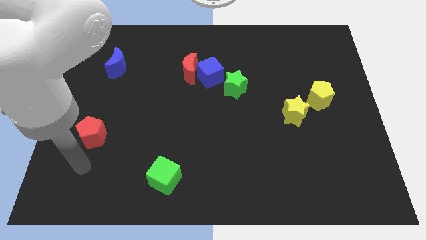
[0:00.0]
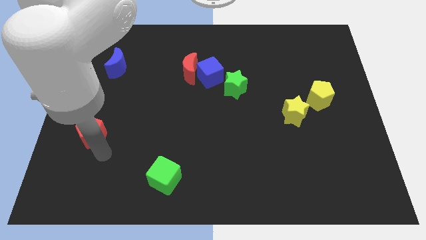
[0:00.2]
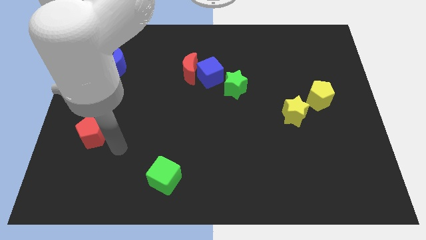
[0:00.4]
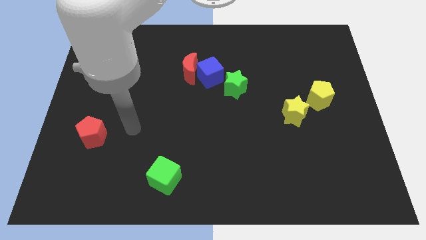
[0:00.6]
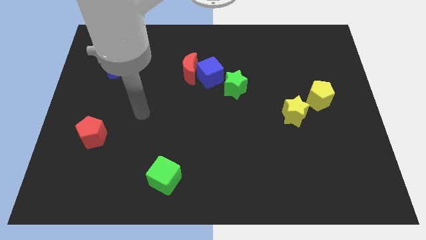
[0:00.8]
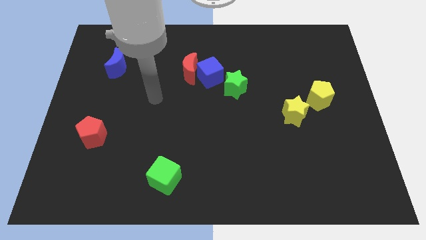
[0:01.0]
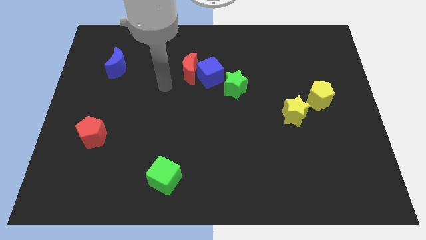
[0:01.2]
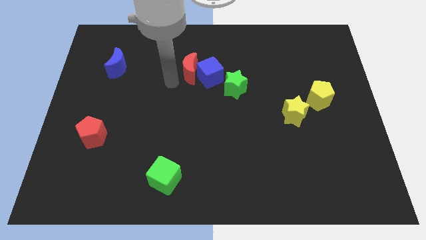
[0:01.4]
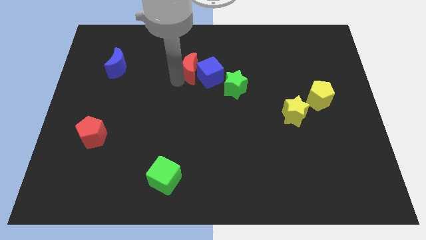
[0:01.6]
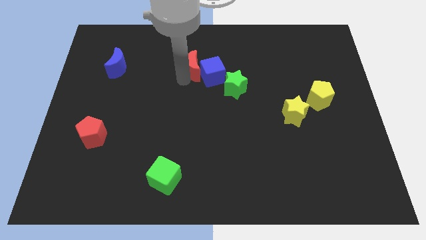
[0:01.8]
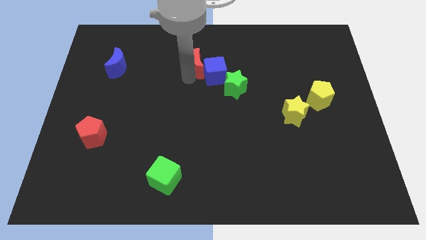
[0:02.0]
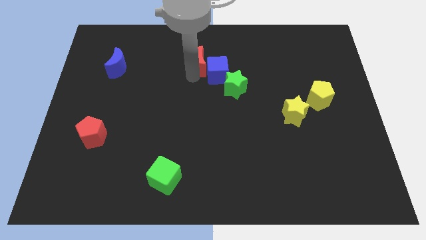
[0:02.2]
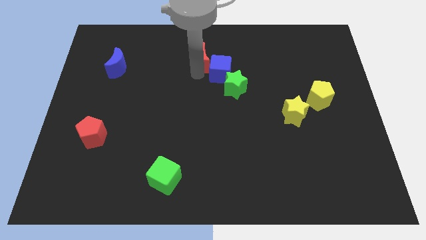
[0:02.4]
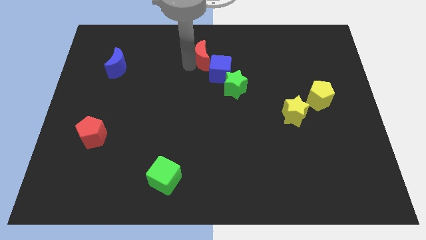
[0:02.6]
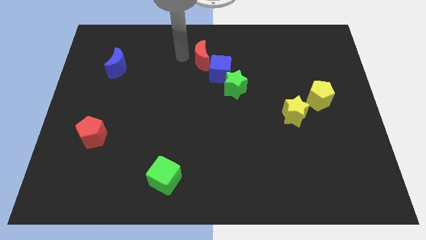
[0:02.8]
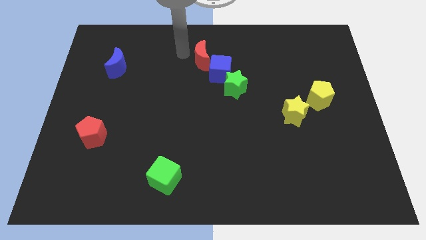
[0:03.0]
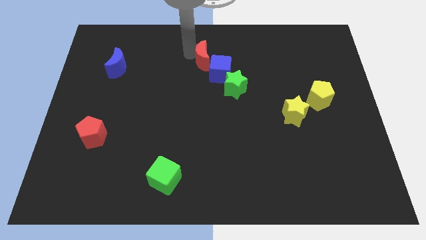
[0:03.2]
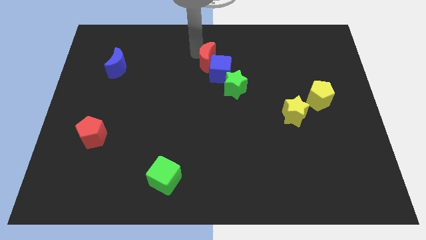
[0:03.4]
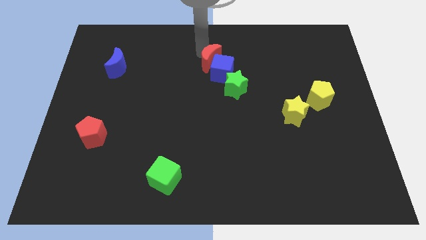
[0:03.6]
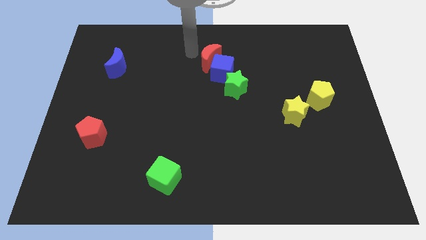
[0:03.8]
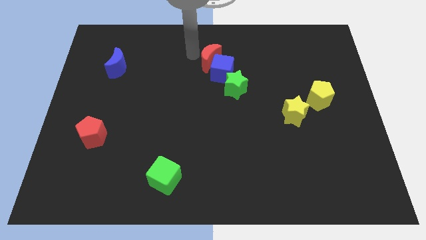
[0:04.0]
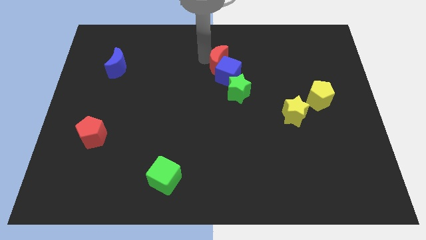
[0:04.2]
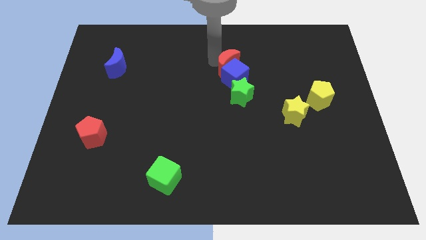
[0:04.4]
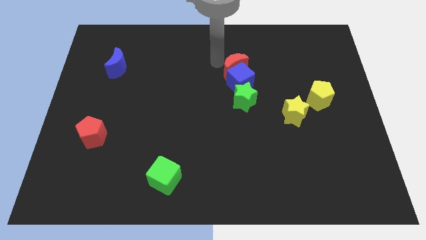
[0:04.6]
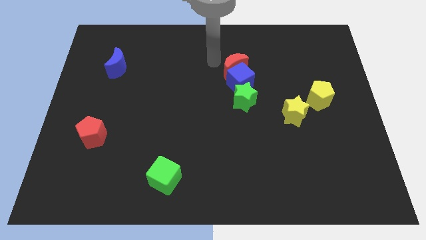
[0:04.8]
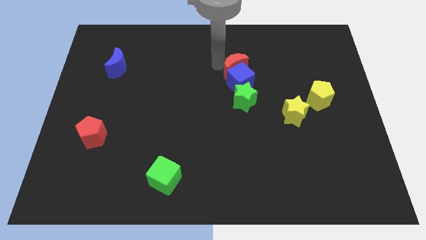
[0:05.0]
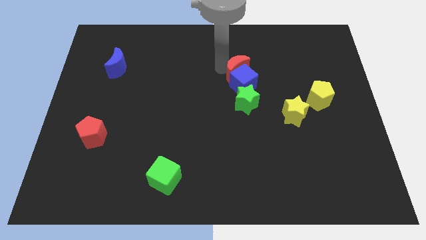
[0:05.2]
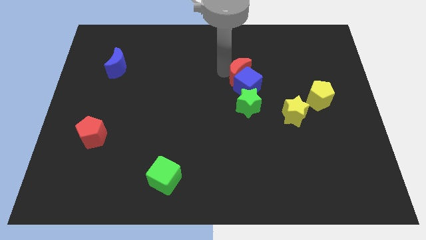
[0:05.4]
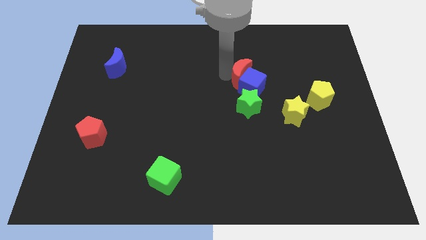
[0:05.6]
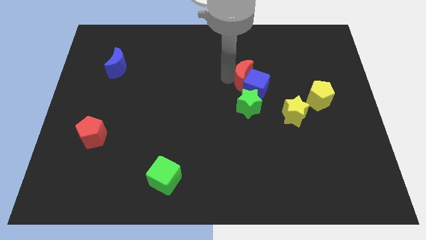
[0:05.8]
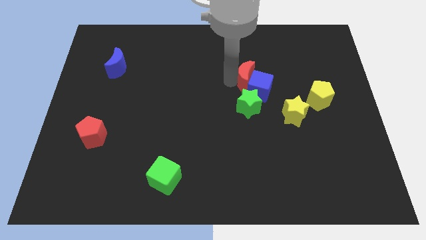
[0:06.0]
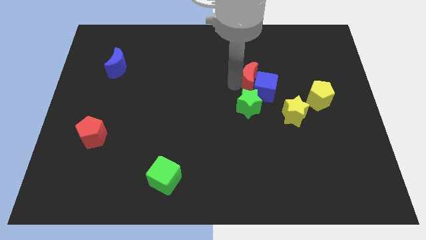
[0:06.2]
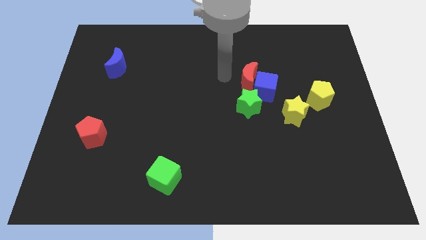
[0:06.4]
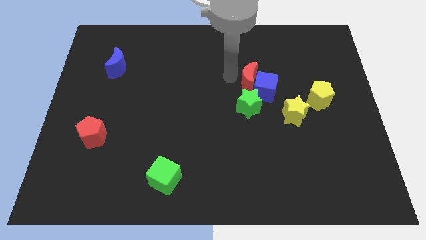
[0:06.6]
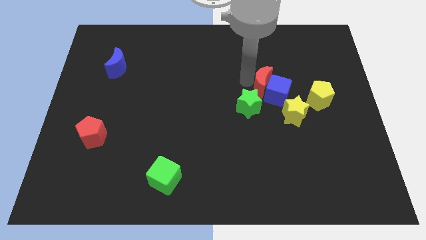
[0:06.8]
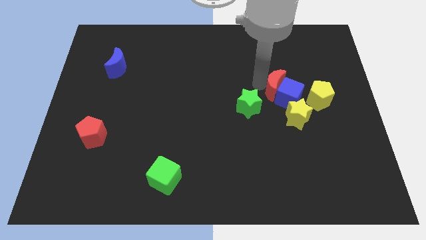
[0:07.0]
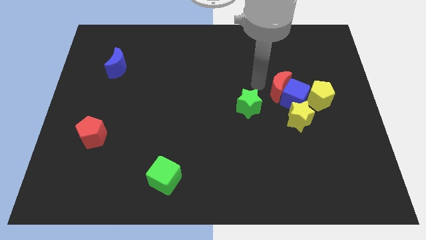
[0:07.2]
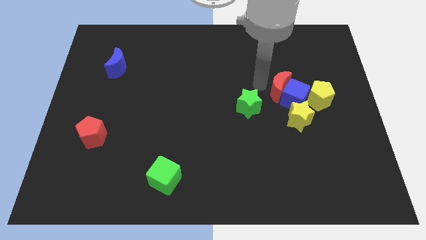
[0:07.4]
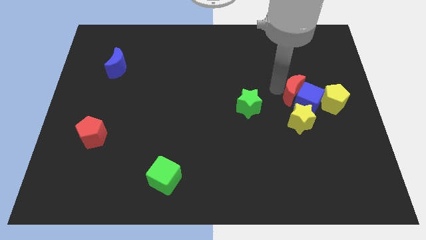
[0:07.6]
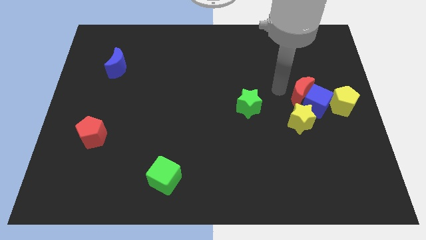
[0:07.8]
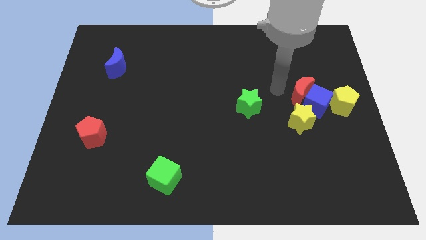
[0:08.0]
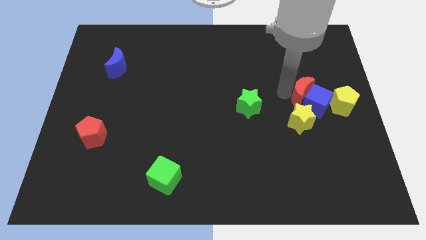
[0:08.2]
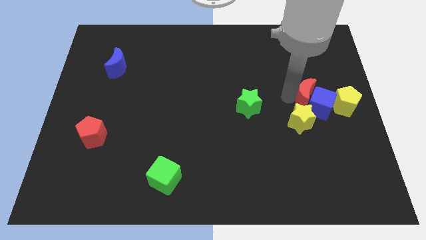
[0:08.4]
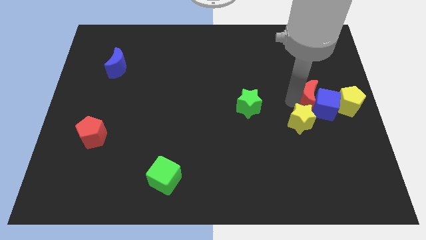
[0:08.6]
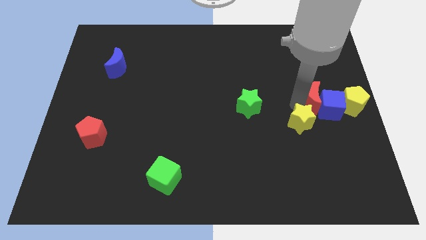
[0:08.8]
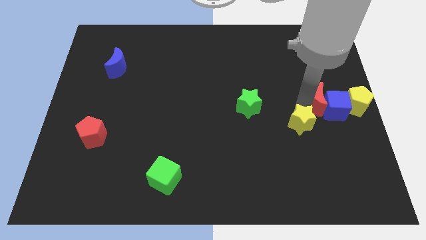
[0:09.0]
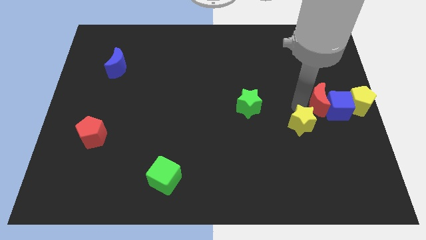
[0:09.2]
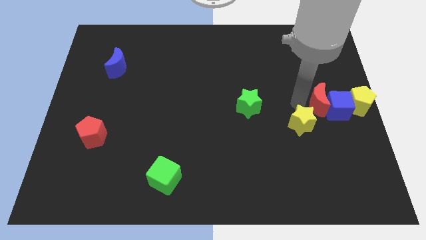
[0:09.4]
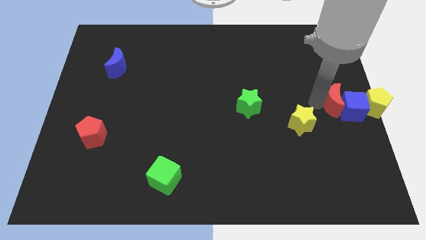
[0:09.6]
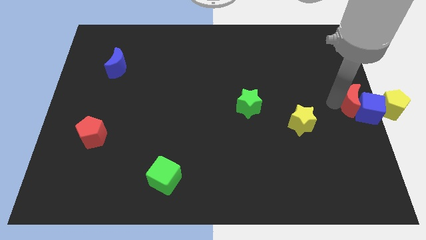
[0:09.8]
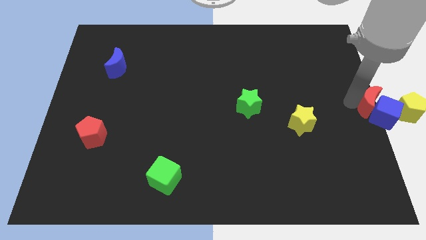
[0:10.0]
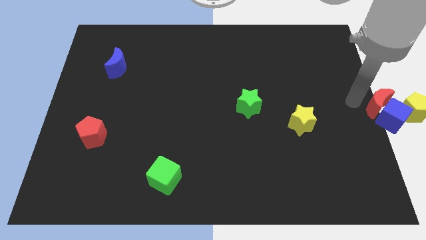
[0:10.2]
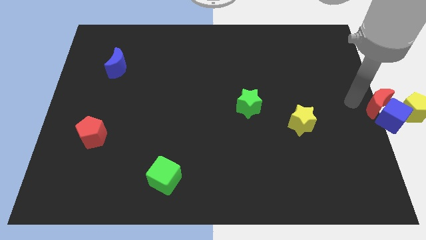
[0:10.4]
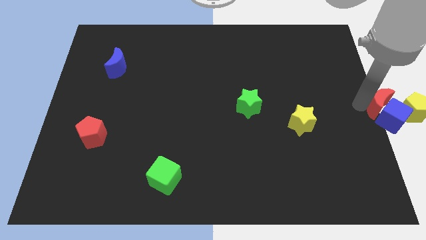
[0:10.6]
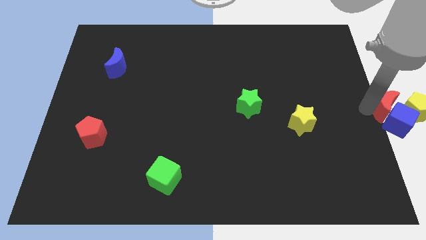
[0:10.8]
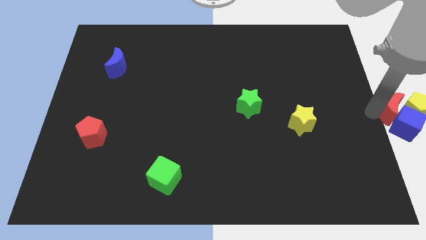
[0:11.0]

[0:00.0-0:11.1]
put the red moon next to the yellow pentagon

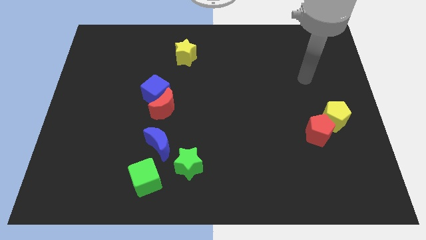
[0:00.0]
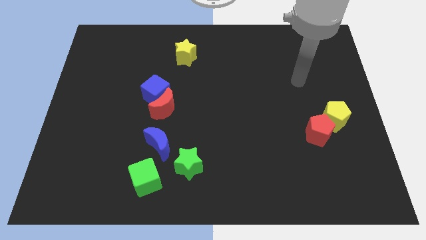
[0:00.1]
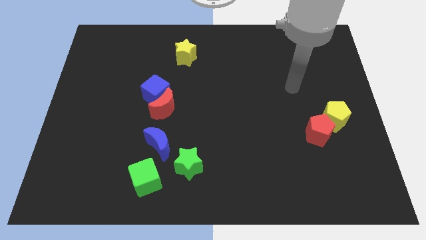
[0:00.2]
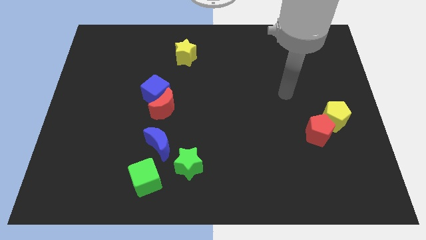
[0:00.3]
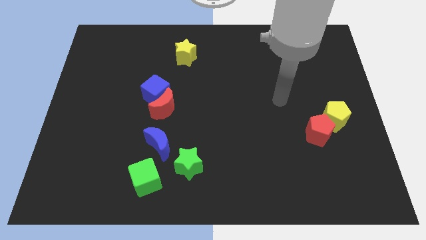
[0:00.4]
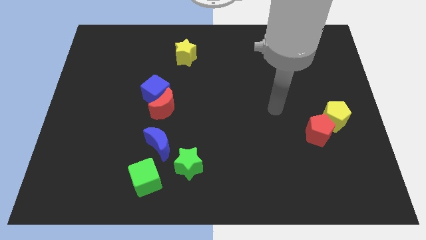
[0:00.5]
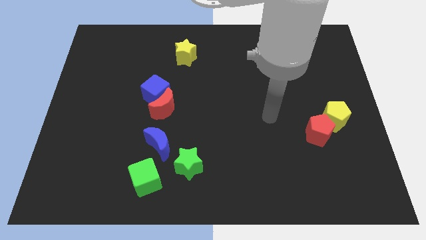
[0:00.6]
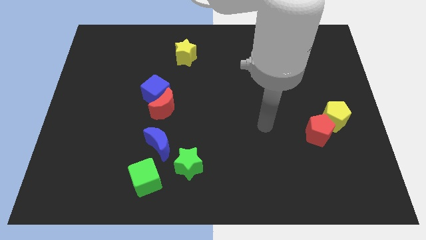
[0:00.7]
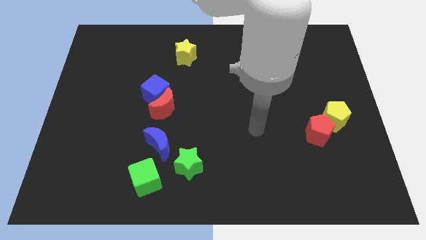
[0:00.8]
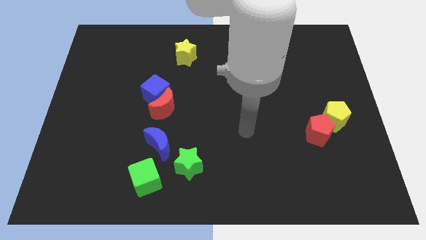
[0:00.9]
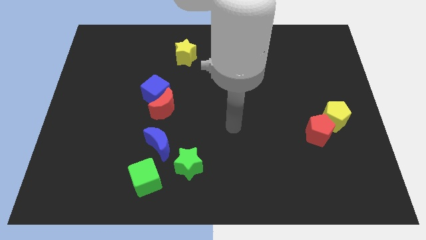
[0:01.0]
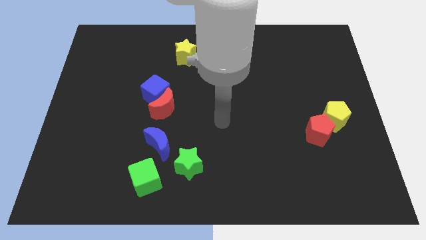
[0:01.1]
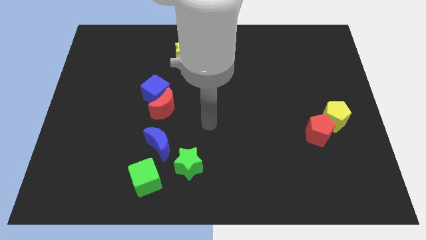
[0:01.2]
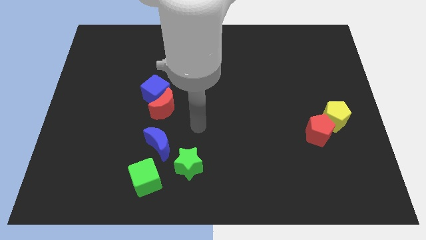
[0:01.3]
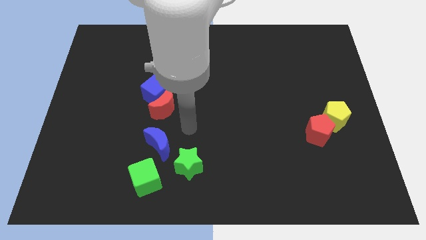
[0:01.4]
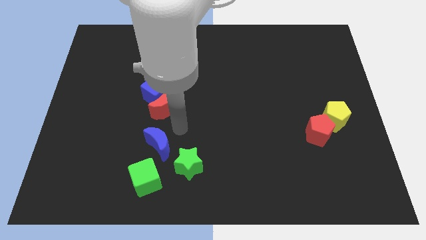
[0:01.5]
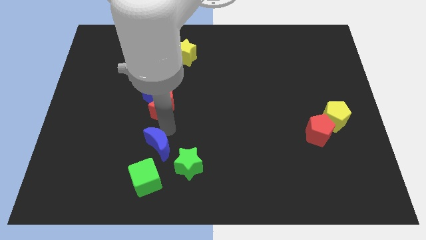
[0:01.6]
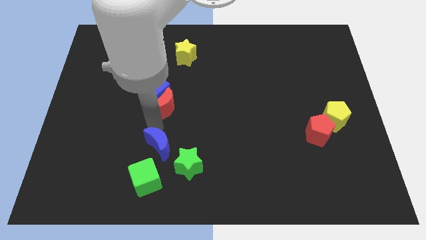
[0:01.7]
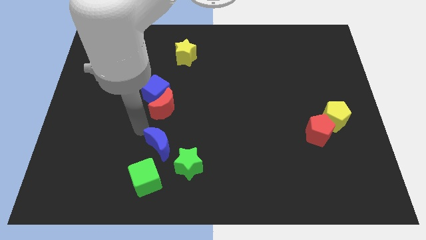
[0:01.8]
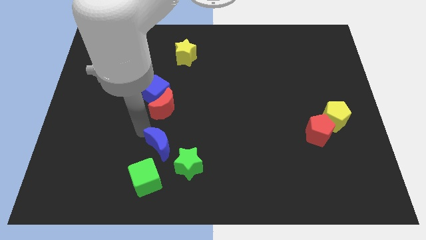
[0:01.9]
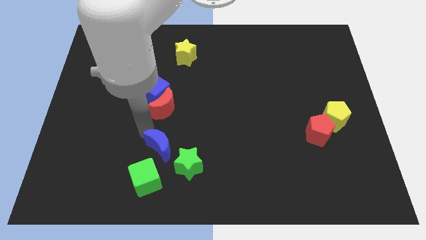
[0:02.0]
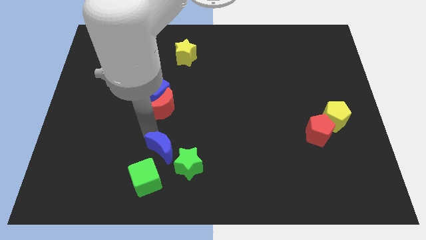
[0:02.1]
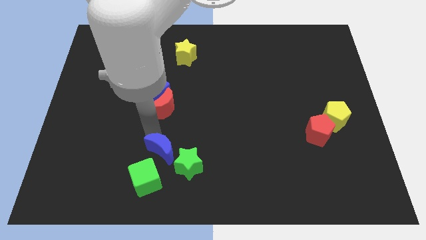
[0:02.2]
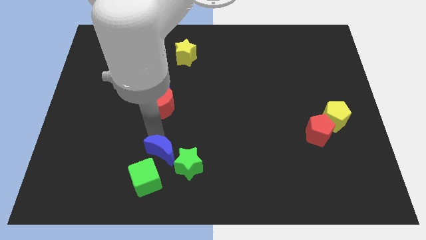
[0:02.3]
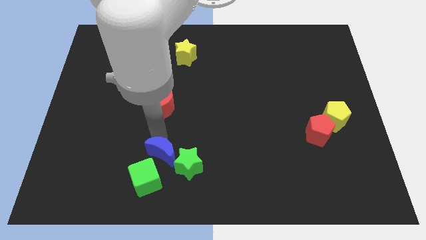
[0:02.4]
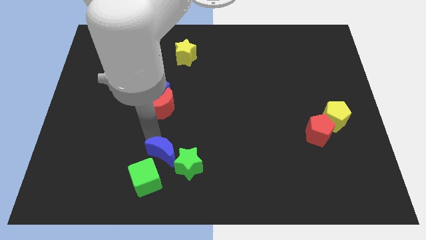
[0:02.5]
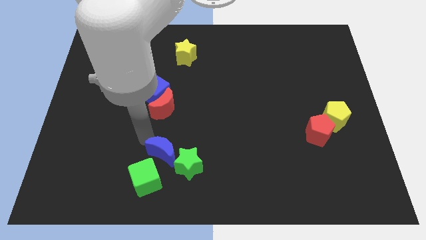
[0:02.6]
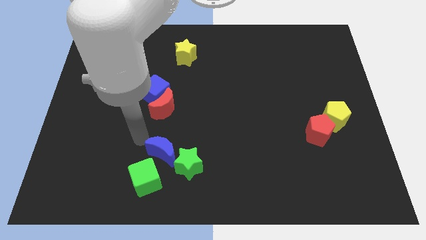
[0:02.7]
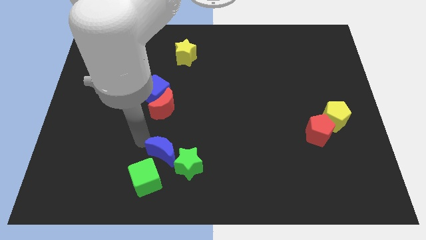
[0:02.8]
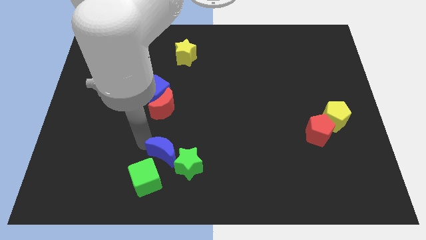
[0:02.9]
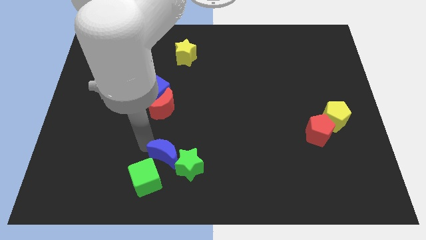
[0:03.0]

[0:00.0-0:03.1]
slide the blue moon to the green star
